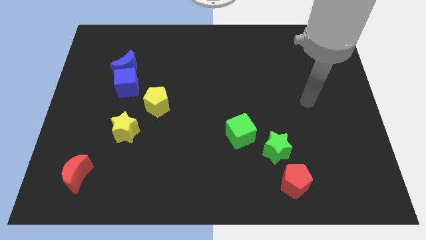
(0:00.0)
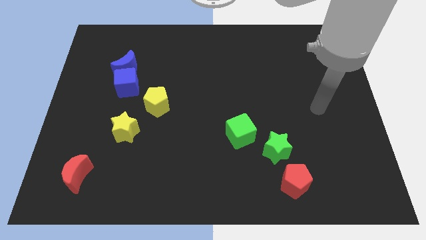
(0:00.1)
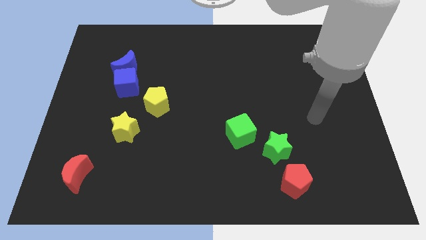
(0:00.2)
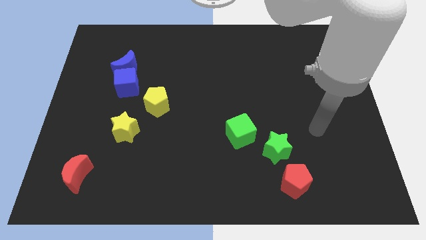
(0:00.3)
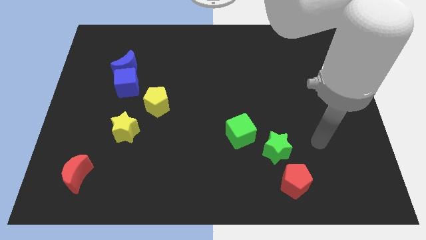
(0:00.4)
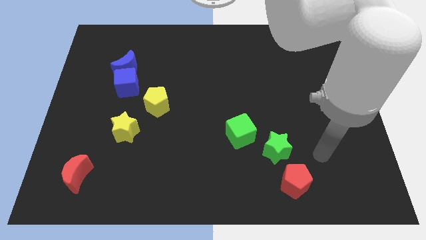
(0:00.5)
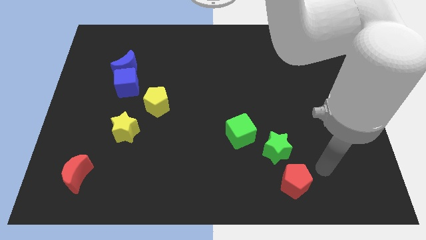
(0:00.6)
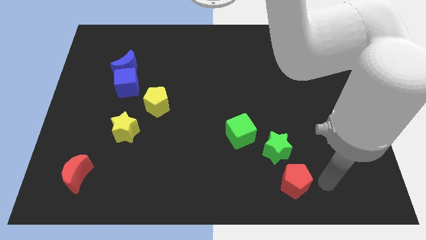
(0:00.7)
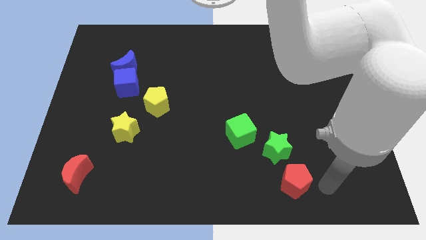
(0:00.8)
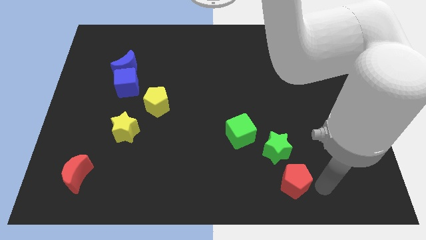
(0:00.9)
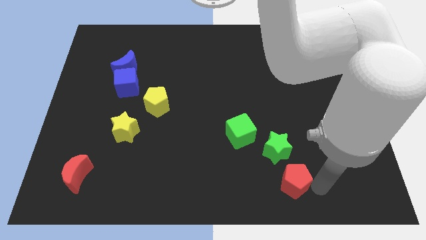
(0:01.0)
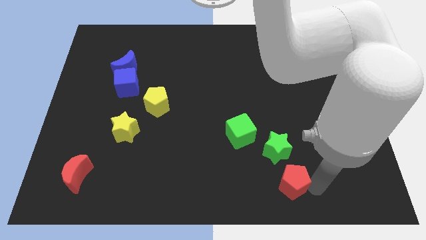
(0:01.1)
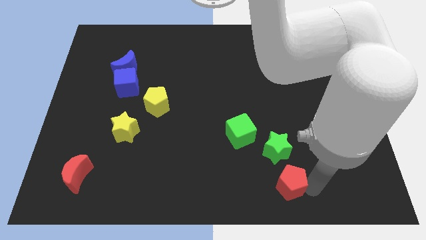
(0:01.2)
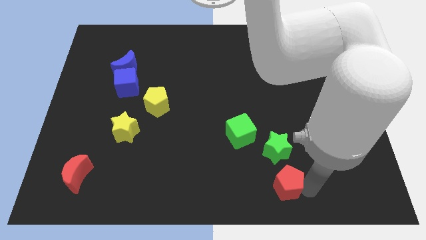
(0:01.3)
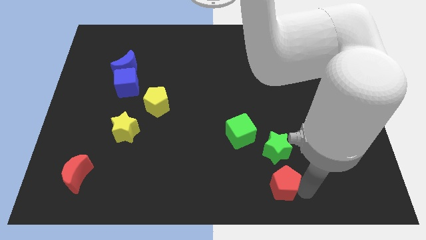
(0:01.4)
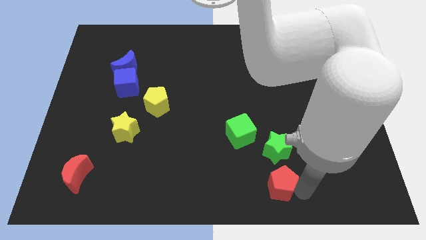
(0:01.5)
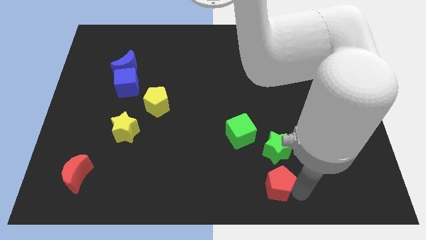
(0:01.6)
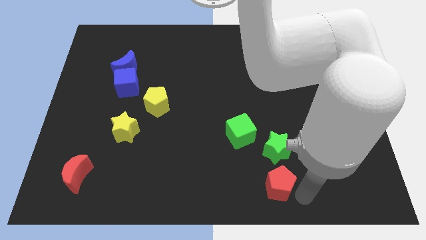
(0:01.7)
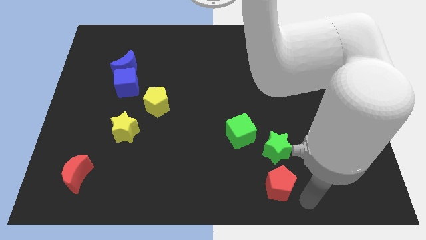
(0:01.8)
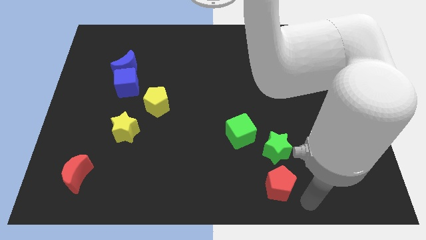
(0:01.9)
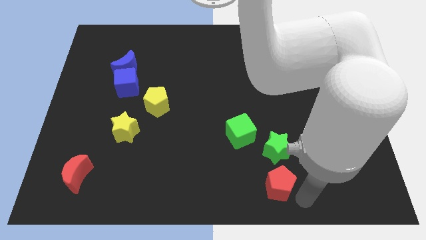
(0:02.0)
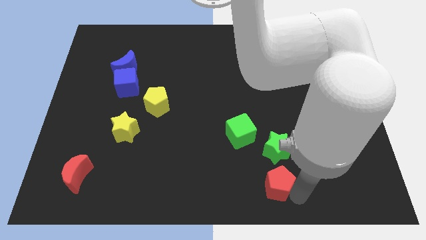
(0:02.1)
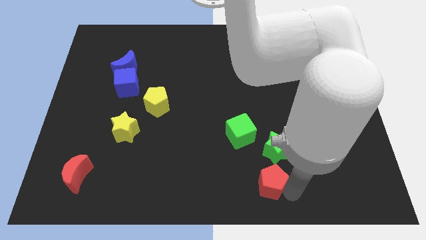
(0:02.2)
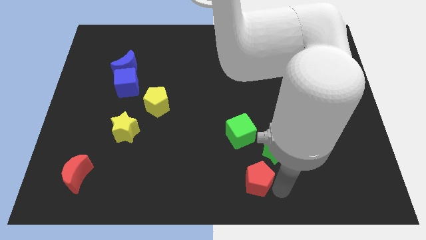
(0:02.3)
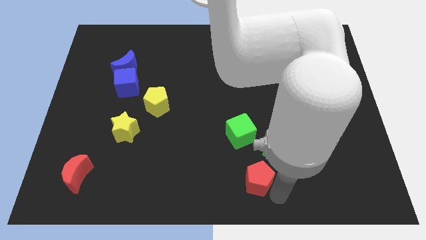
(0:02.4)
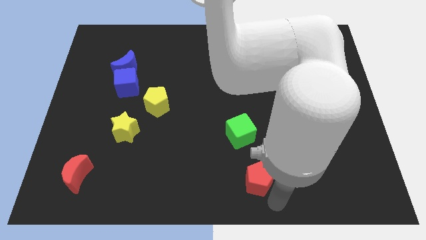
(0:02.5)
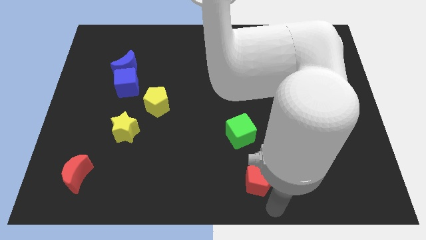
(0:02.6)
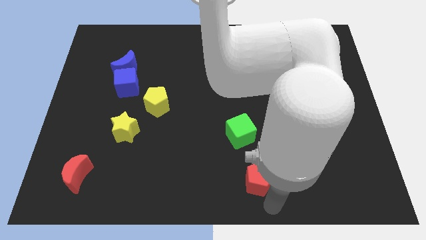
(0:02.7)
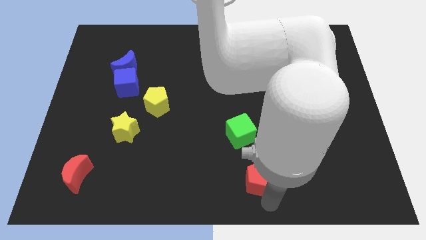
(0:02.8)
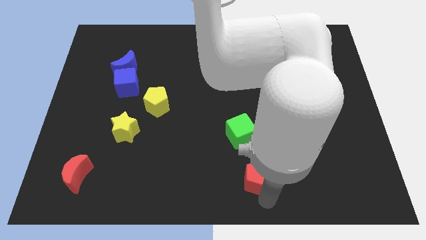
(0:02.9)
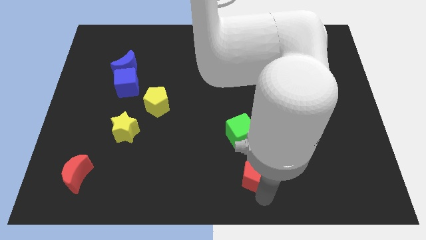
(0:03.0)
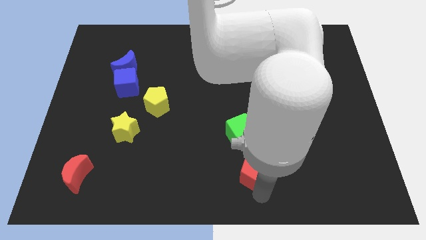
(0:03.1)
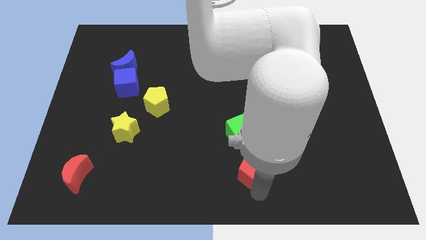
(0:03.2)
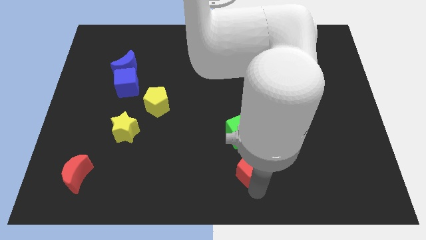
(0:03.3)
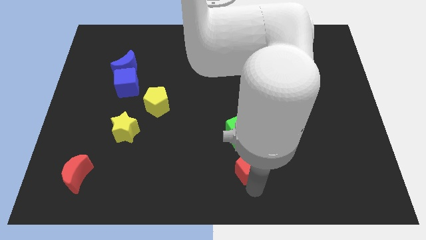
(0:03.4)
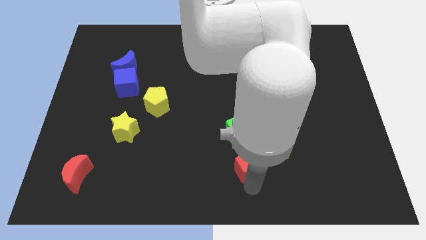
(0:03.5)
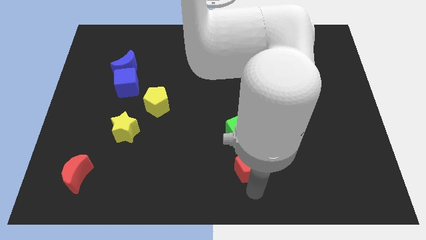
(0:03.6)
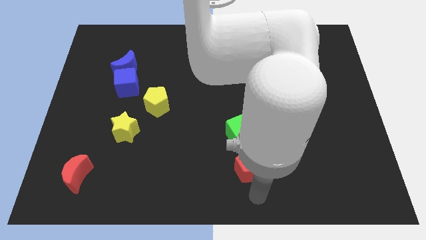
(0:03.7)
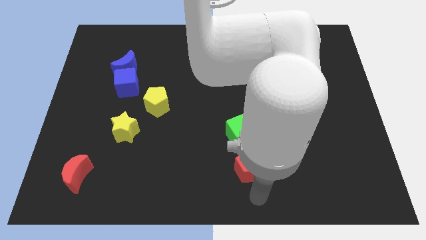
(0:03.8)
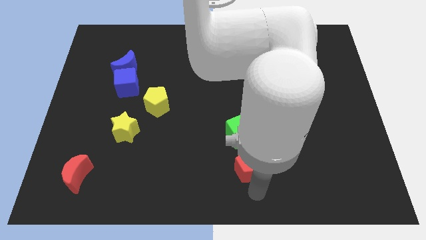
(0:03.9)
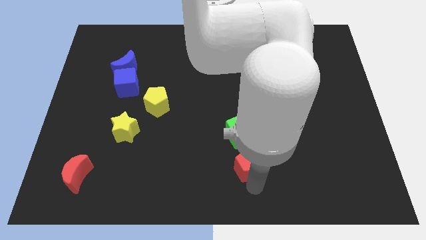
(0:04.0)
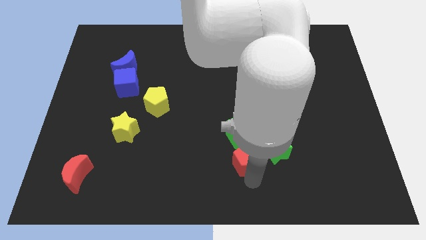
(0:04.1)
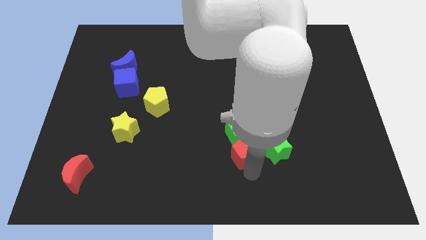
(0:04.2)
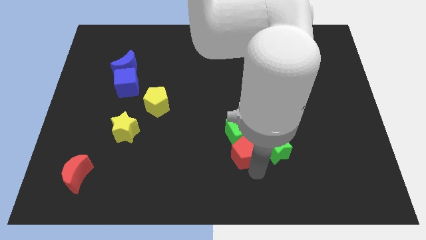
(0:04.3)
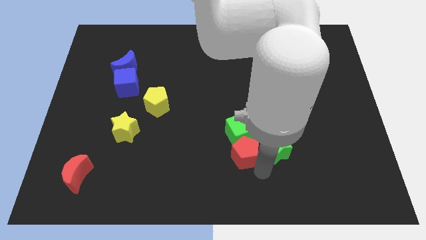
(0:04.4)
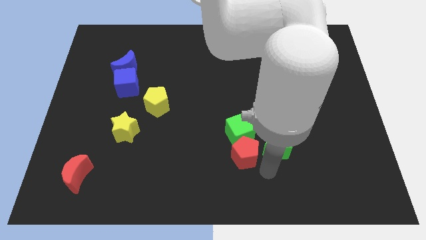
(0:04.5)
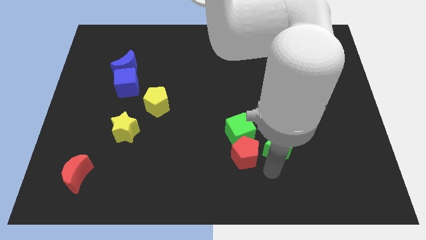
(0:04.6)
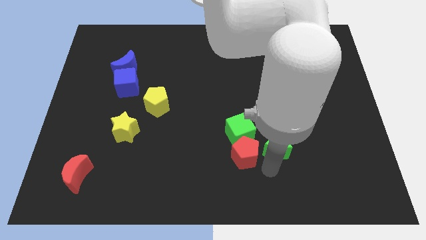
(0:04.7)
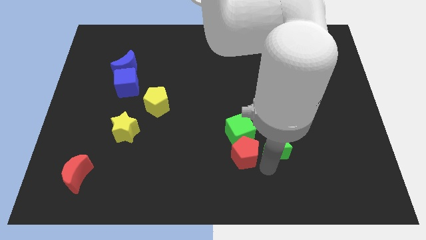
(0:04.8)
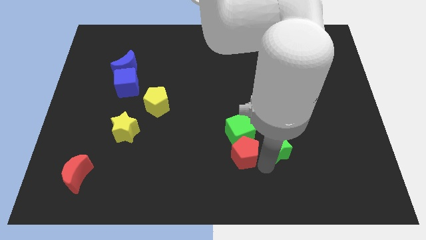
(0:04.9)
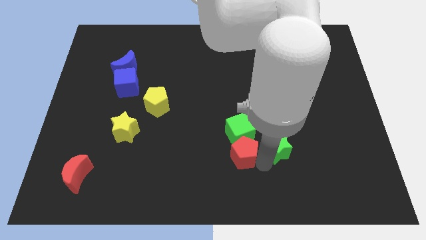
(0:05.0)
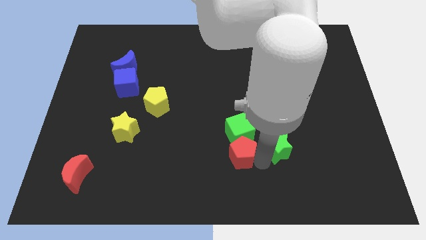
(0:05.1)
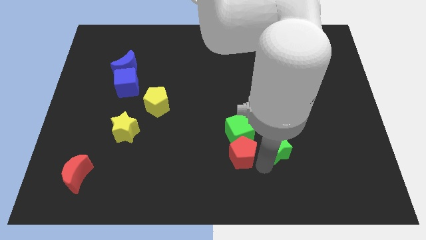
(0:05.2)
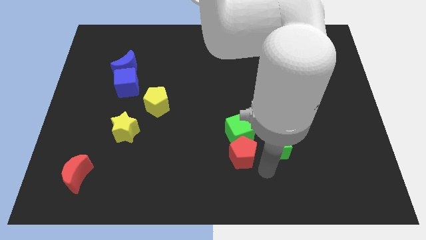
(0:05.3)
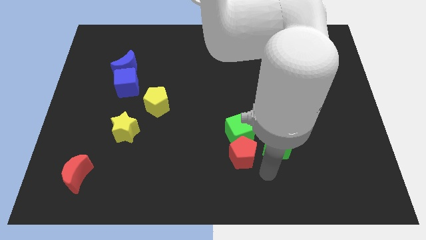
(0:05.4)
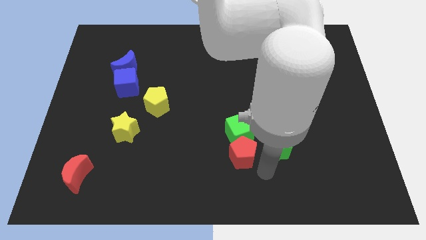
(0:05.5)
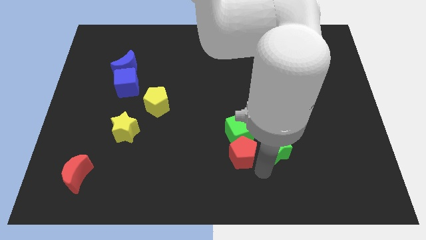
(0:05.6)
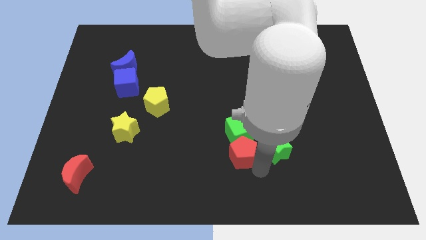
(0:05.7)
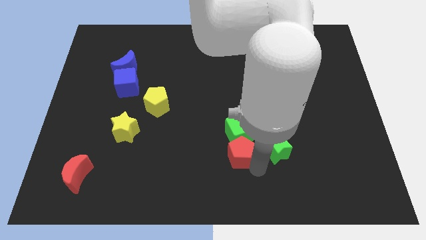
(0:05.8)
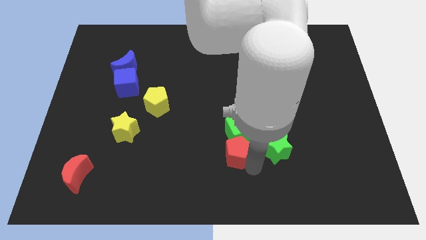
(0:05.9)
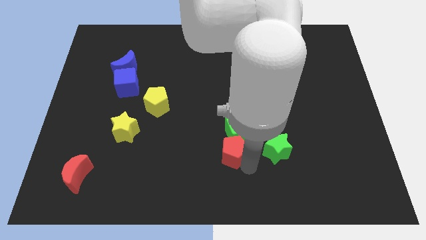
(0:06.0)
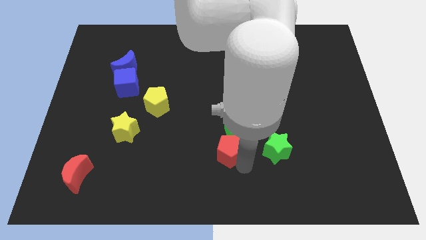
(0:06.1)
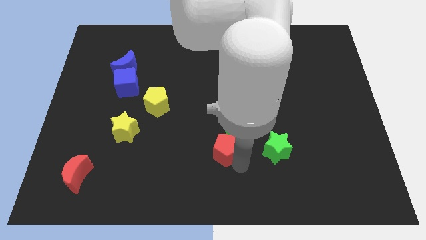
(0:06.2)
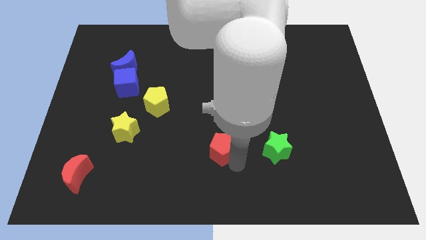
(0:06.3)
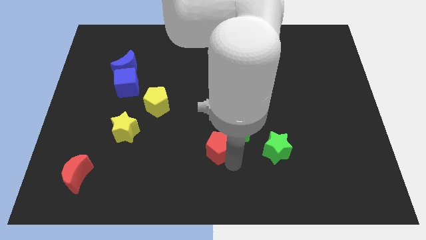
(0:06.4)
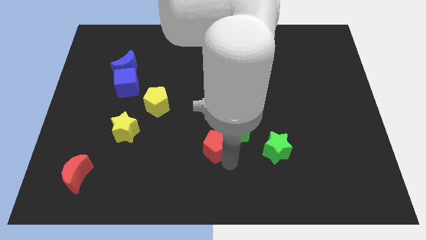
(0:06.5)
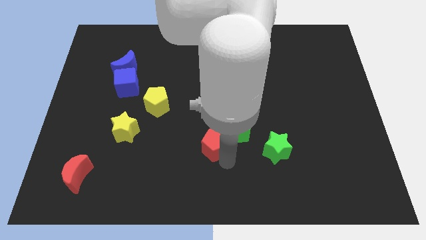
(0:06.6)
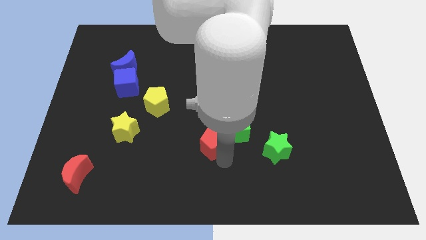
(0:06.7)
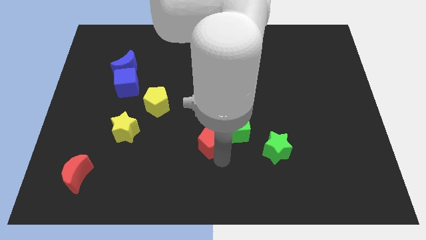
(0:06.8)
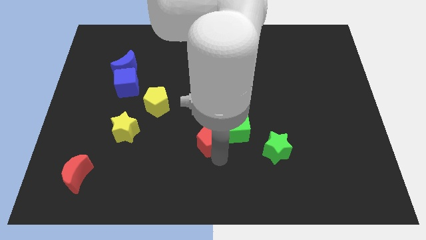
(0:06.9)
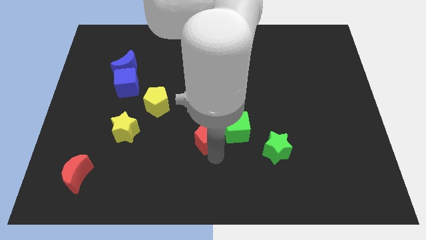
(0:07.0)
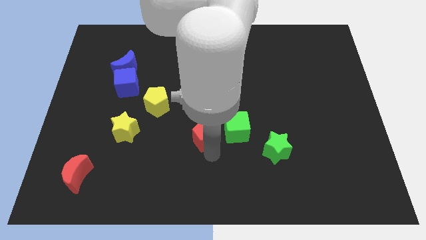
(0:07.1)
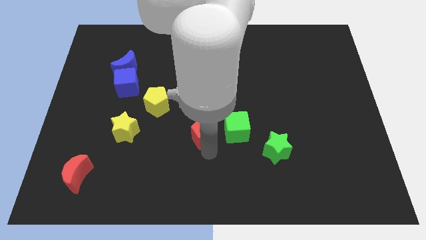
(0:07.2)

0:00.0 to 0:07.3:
push the red pentagon diagonally upwards and left

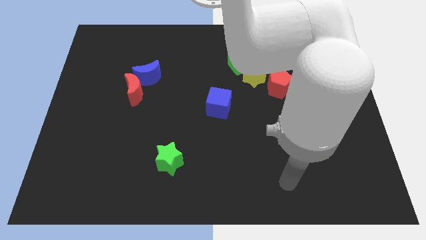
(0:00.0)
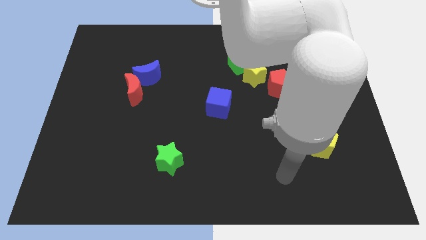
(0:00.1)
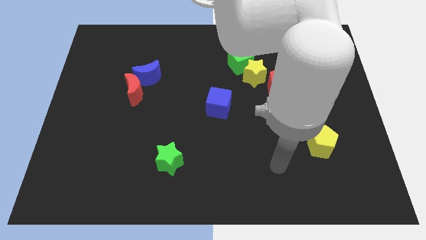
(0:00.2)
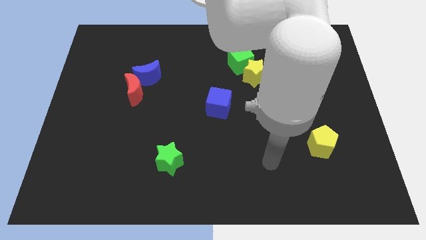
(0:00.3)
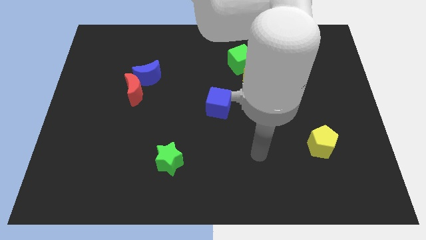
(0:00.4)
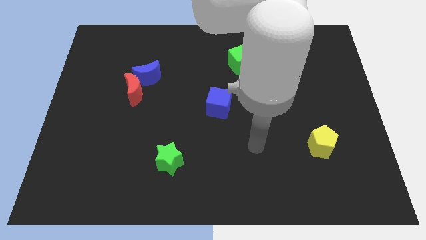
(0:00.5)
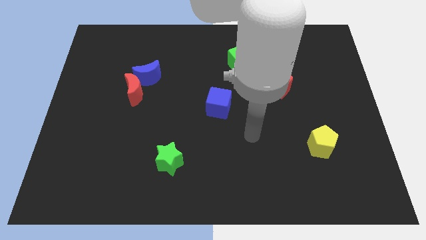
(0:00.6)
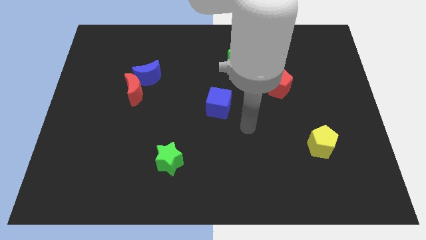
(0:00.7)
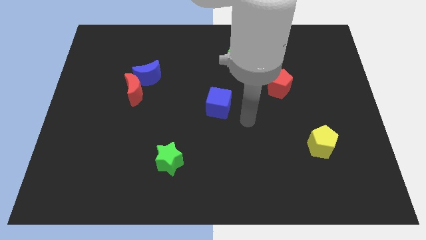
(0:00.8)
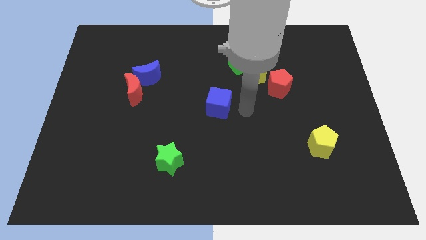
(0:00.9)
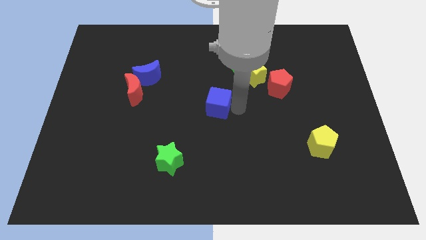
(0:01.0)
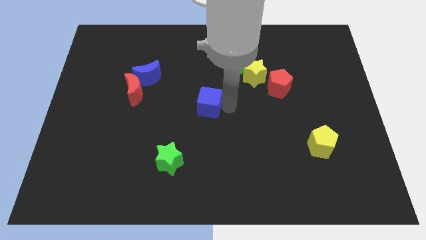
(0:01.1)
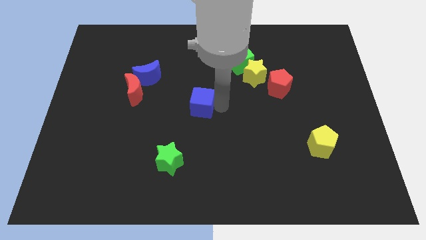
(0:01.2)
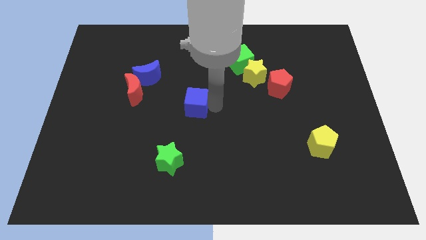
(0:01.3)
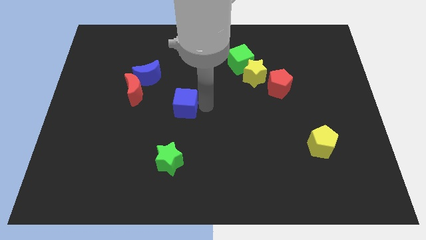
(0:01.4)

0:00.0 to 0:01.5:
slightly slide the blue cube to the left
